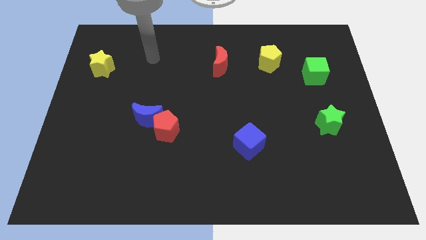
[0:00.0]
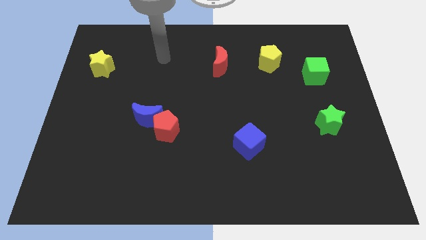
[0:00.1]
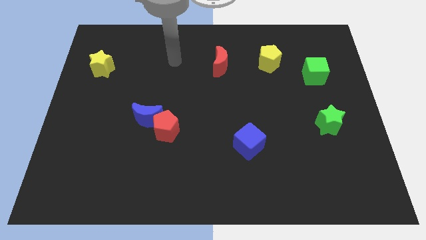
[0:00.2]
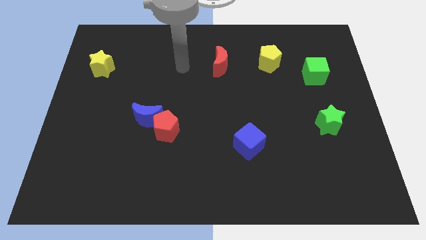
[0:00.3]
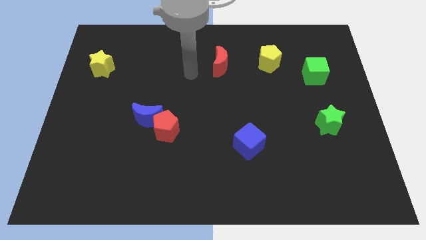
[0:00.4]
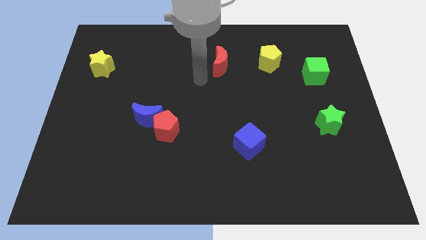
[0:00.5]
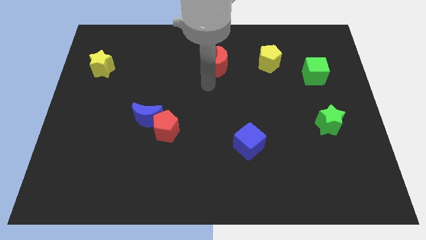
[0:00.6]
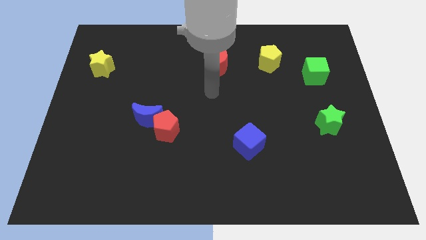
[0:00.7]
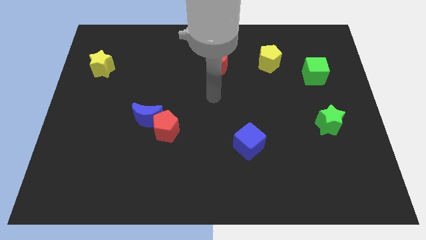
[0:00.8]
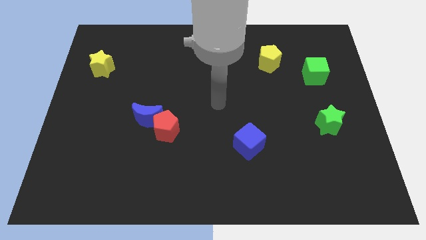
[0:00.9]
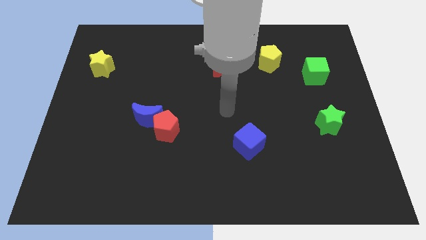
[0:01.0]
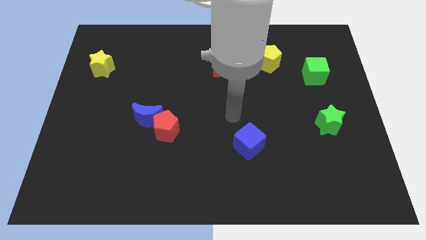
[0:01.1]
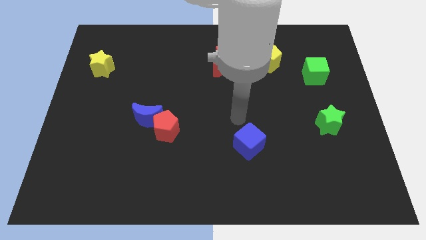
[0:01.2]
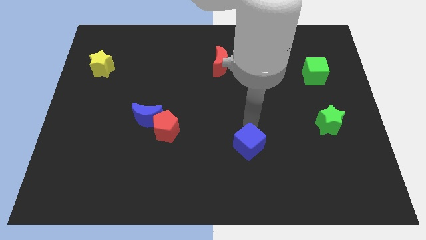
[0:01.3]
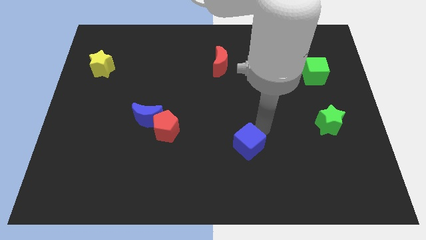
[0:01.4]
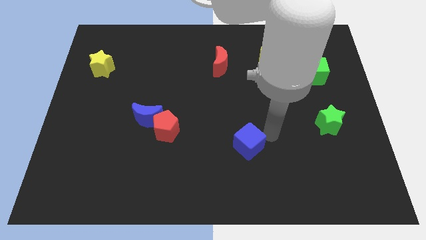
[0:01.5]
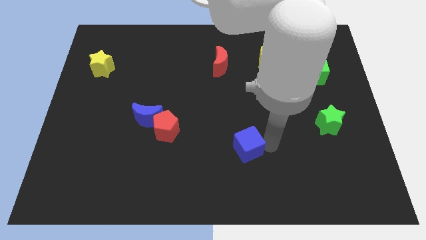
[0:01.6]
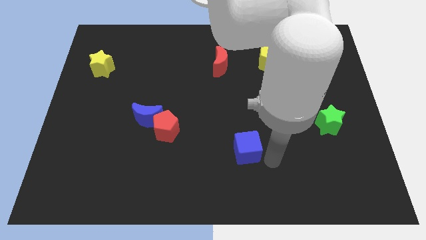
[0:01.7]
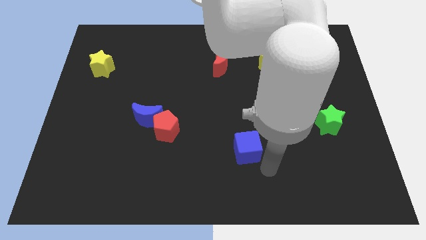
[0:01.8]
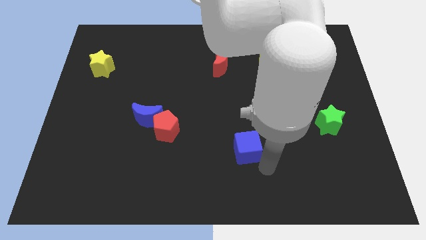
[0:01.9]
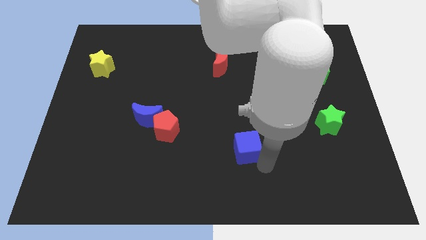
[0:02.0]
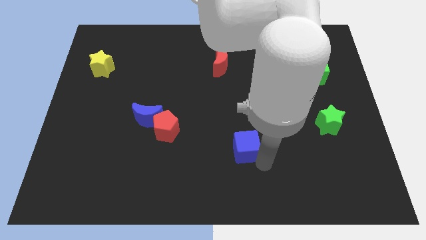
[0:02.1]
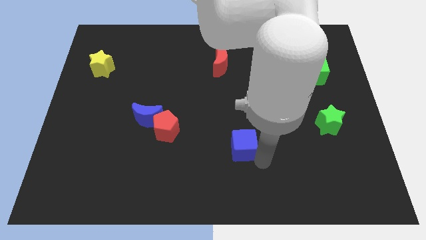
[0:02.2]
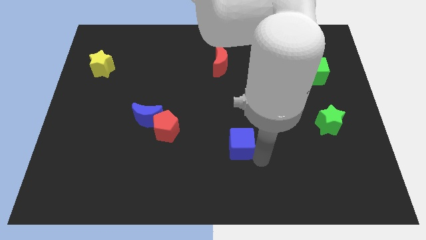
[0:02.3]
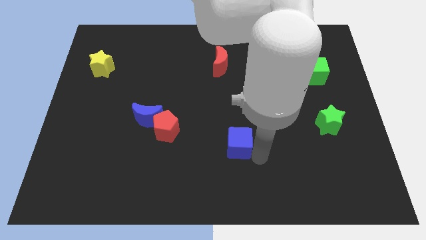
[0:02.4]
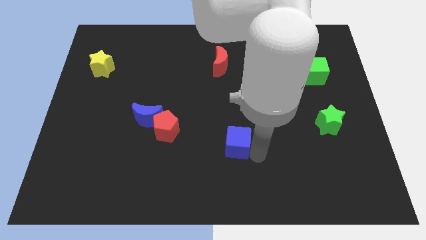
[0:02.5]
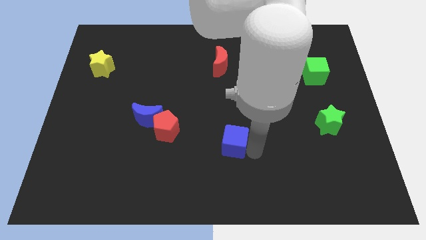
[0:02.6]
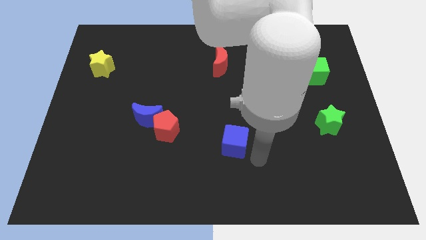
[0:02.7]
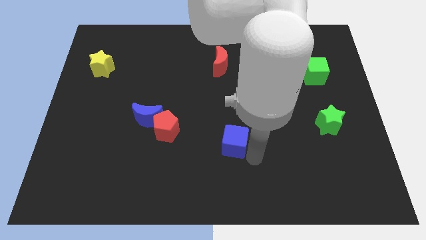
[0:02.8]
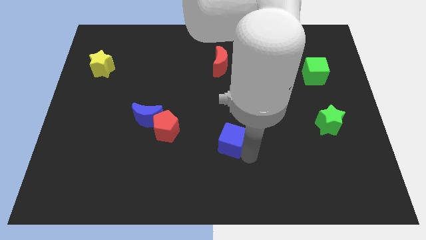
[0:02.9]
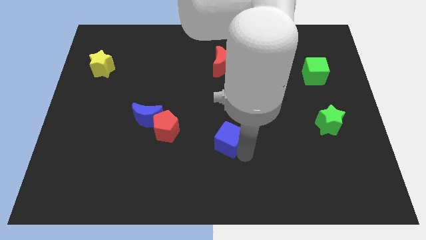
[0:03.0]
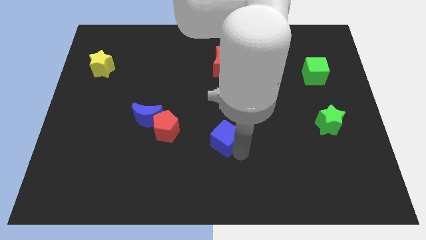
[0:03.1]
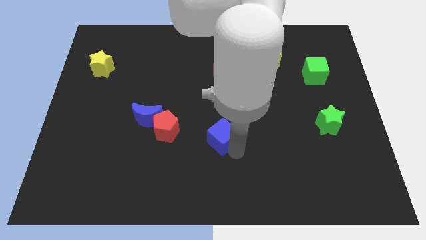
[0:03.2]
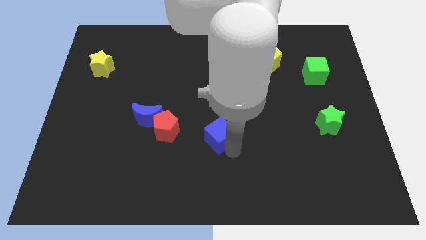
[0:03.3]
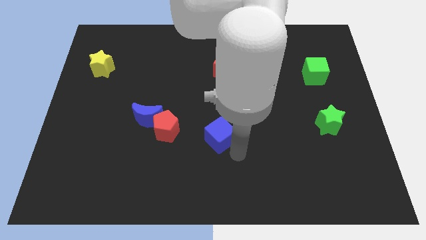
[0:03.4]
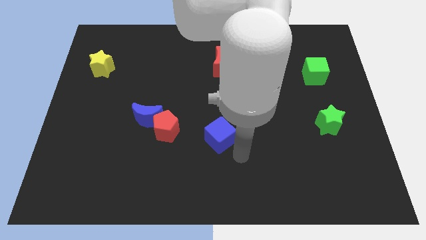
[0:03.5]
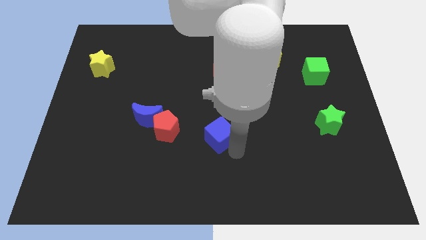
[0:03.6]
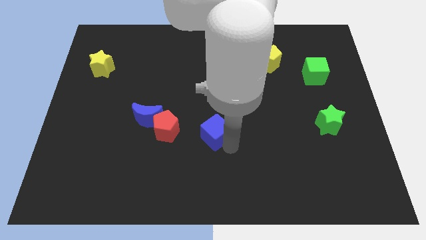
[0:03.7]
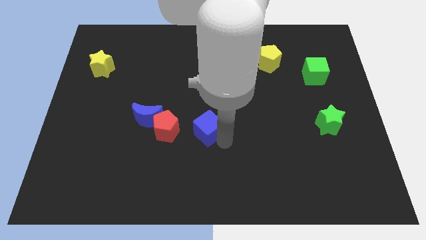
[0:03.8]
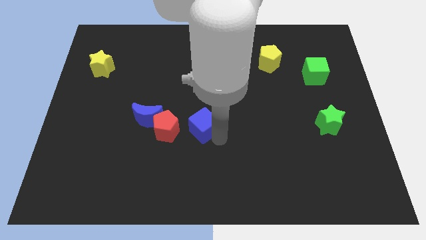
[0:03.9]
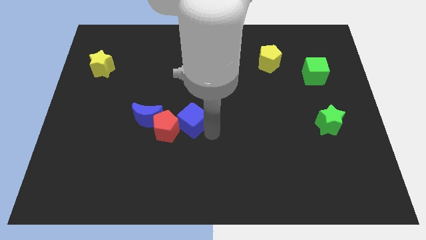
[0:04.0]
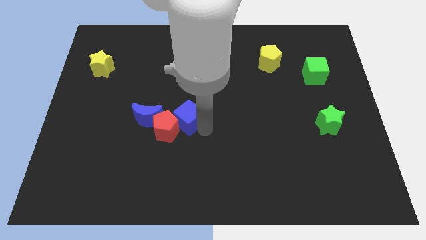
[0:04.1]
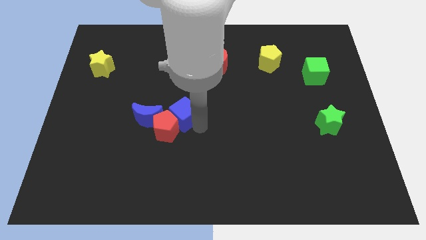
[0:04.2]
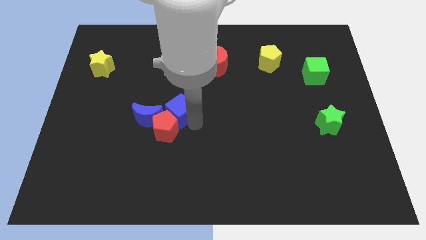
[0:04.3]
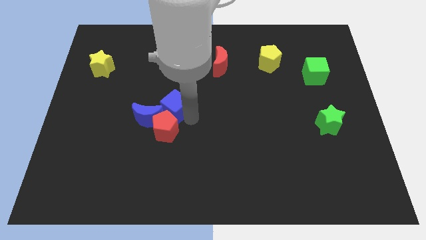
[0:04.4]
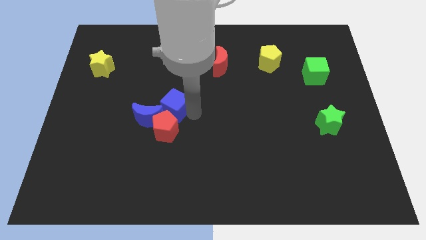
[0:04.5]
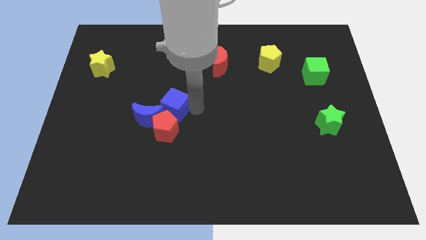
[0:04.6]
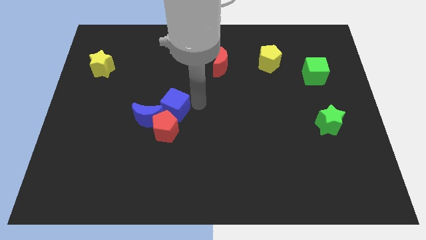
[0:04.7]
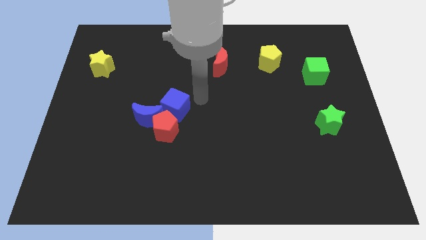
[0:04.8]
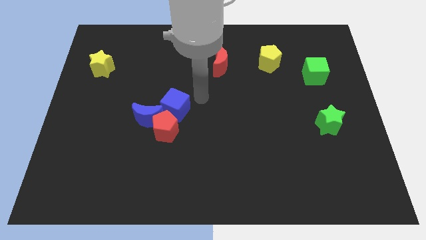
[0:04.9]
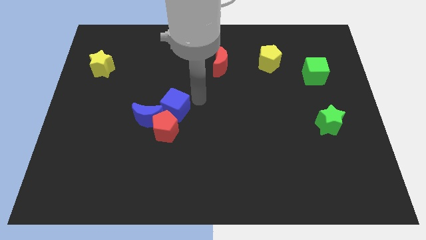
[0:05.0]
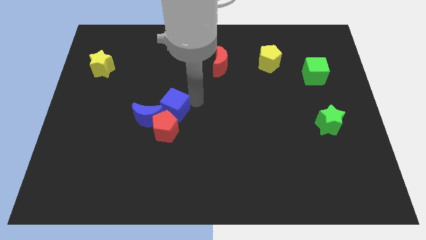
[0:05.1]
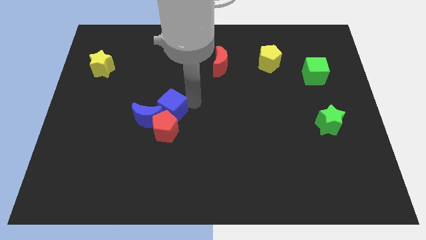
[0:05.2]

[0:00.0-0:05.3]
move the blue cube next to the blue moon

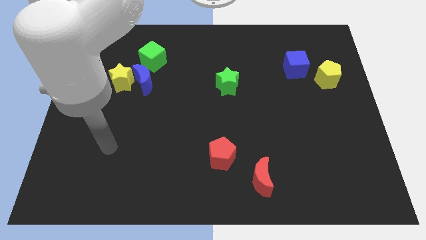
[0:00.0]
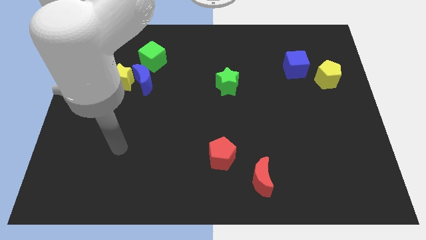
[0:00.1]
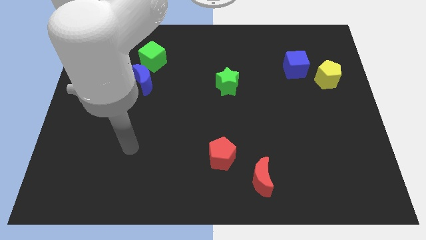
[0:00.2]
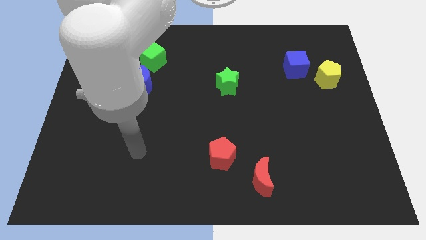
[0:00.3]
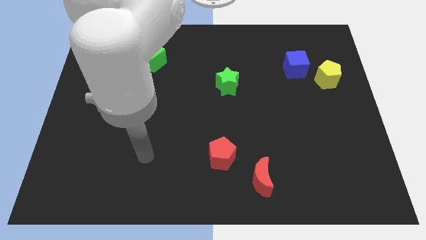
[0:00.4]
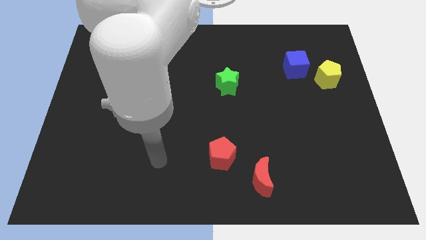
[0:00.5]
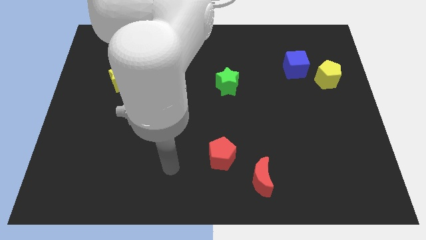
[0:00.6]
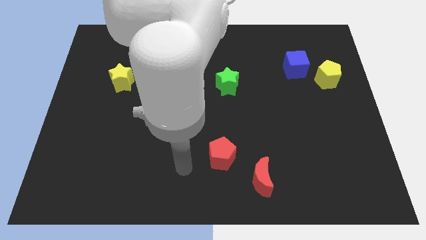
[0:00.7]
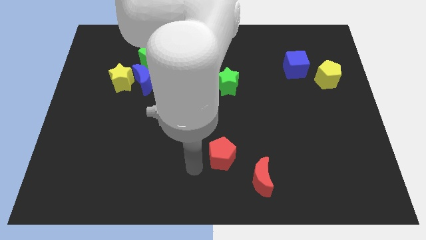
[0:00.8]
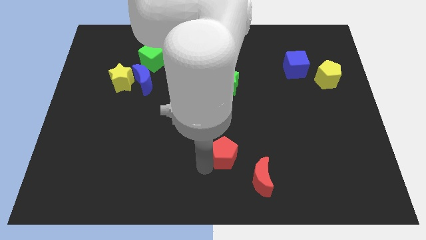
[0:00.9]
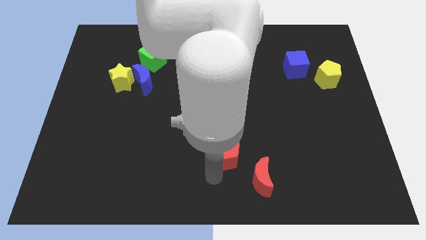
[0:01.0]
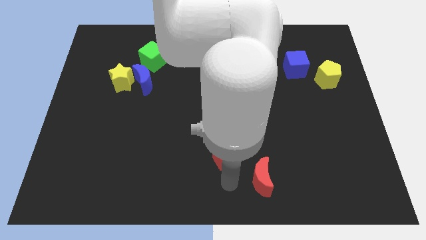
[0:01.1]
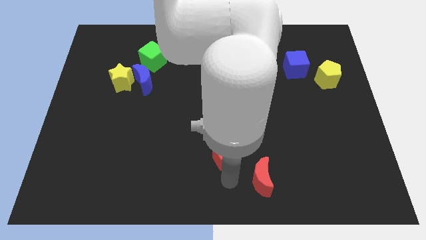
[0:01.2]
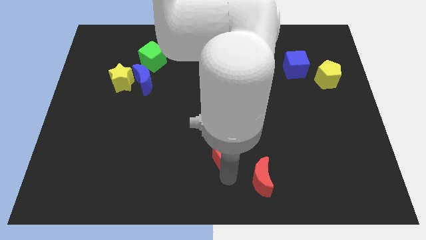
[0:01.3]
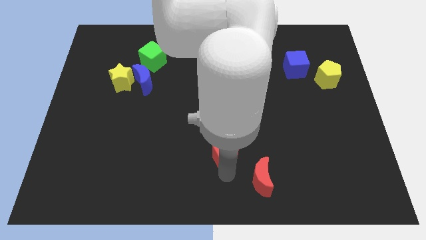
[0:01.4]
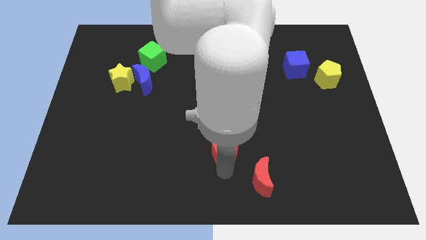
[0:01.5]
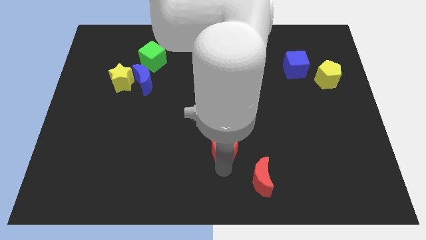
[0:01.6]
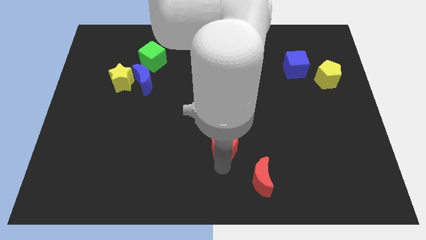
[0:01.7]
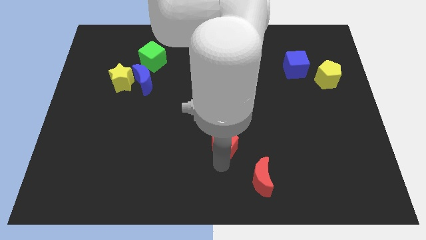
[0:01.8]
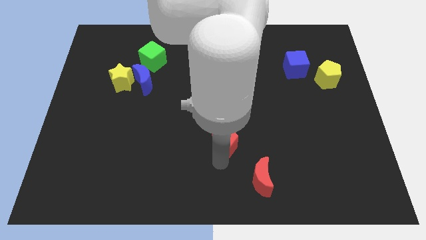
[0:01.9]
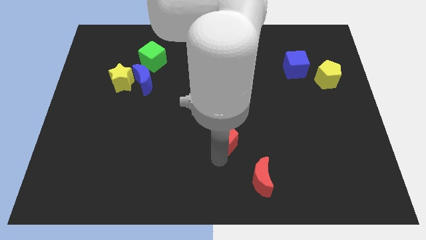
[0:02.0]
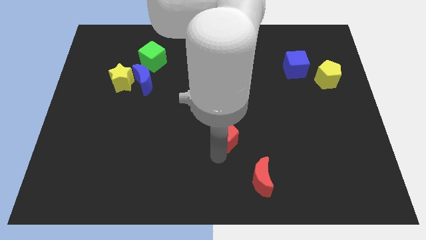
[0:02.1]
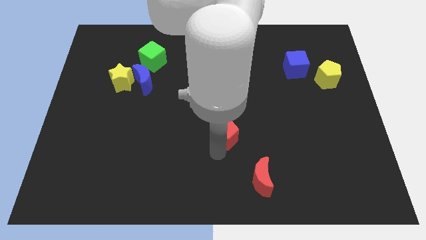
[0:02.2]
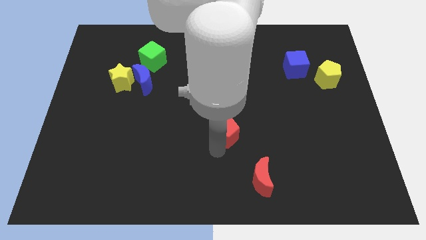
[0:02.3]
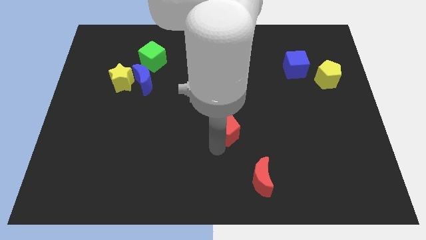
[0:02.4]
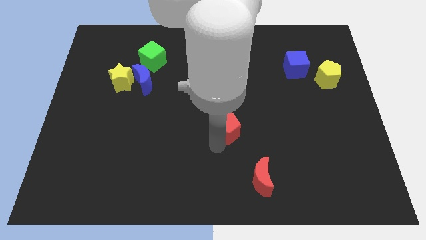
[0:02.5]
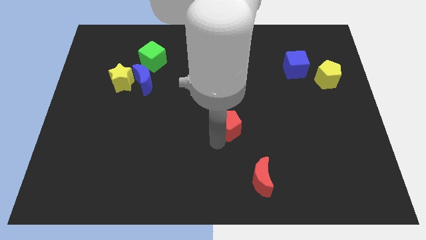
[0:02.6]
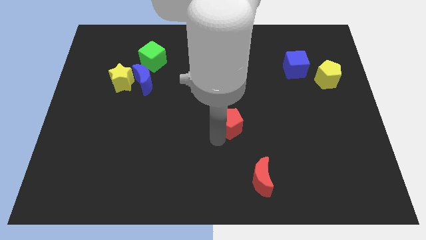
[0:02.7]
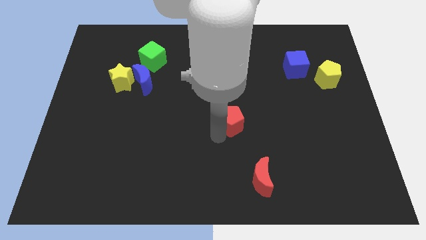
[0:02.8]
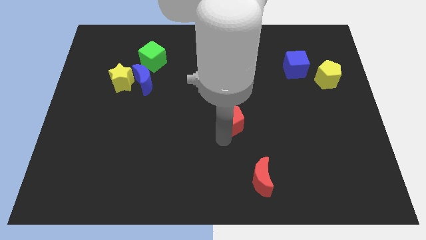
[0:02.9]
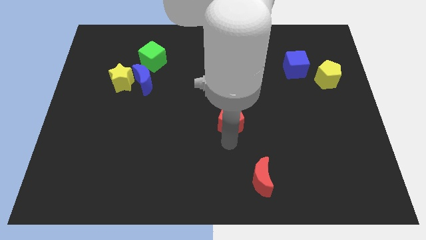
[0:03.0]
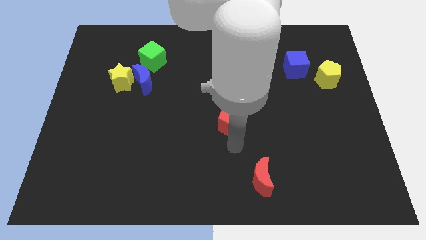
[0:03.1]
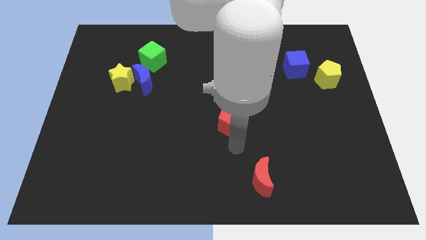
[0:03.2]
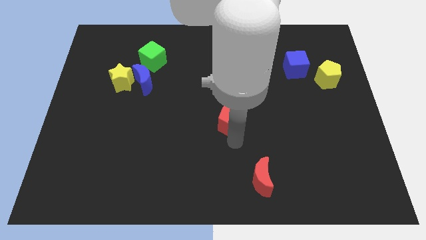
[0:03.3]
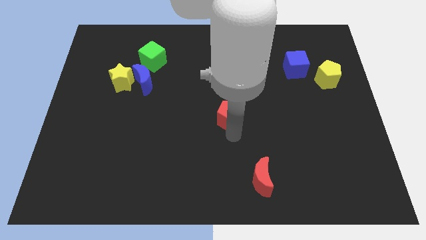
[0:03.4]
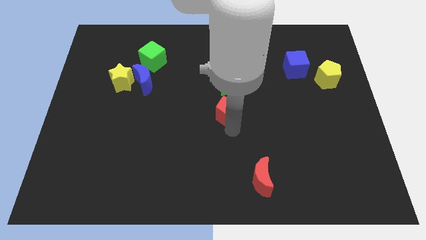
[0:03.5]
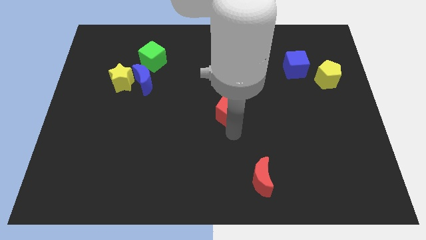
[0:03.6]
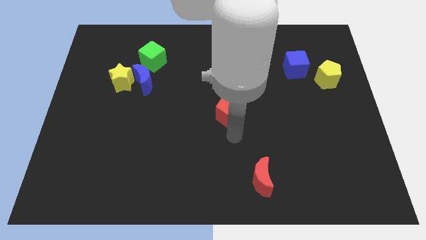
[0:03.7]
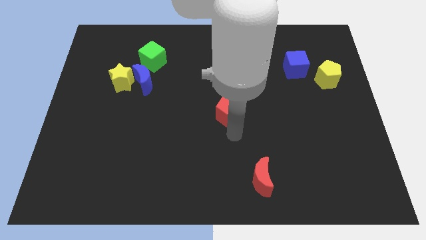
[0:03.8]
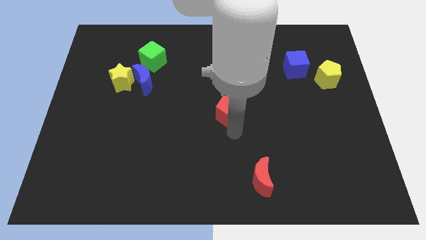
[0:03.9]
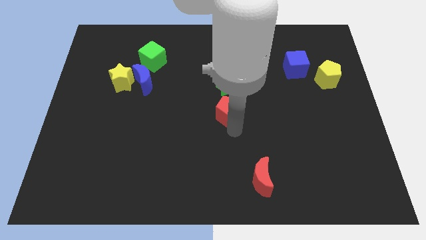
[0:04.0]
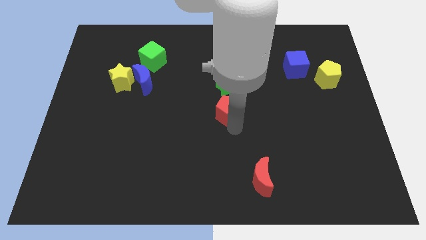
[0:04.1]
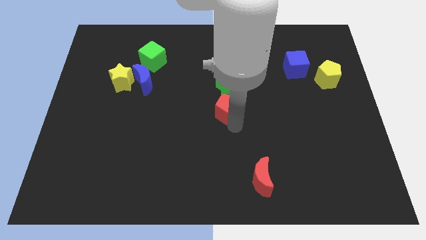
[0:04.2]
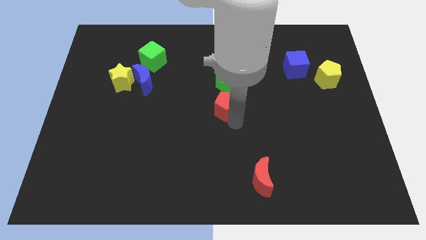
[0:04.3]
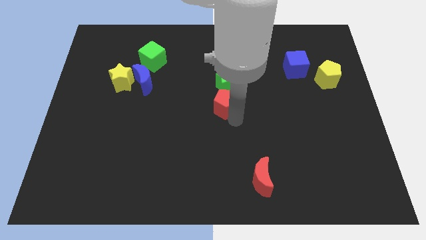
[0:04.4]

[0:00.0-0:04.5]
slide the red pentagon next to the green star
